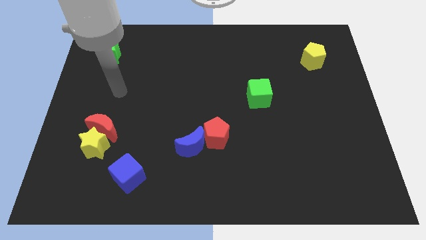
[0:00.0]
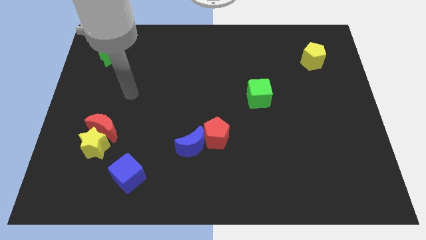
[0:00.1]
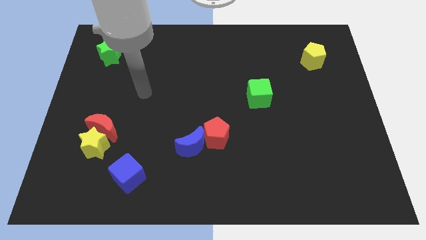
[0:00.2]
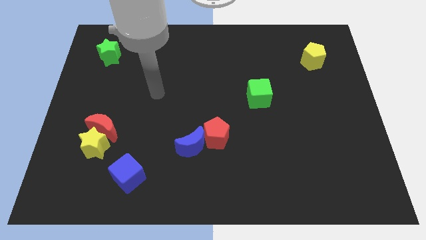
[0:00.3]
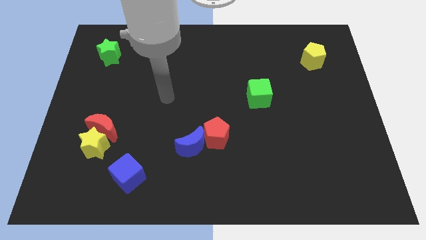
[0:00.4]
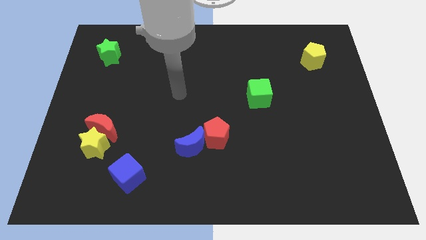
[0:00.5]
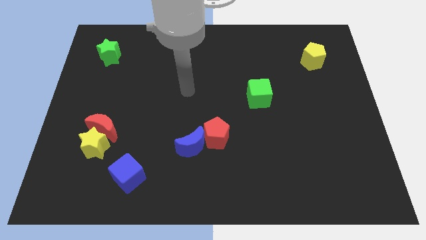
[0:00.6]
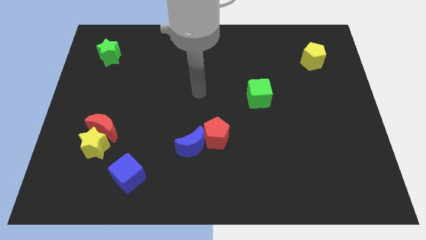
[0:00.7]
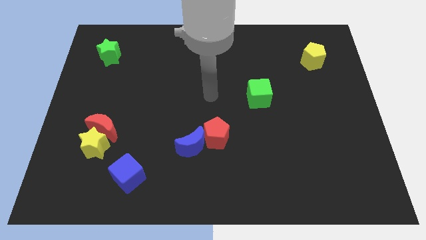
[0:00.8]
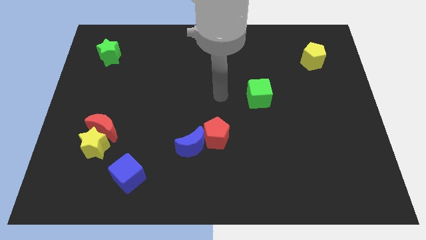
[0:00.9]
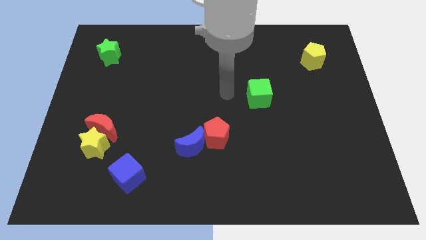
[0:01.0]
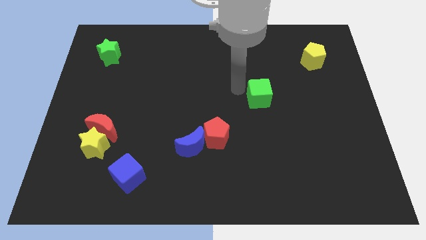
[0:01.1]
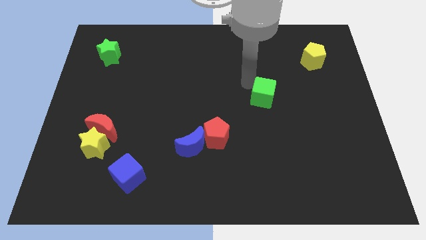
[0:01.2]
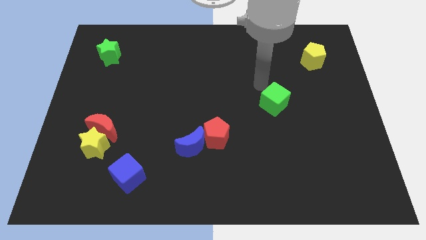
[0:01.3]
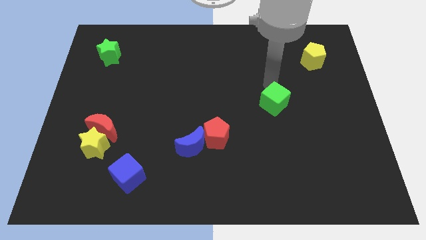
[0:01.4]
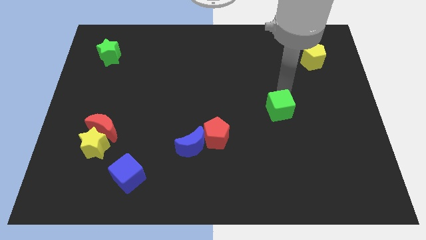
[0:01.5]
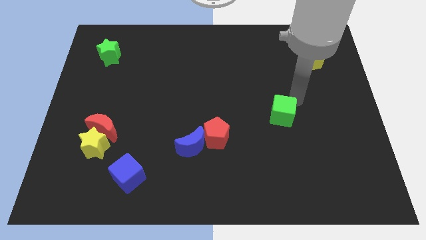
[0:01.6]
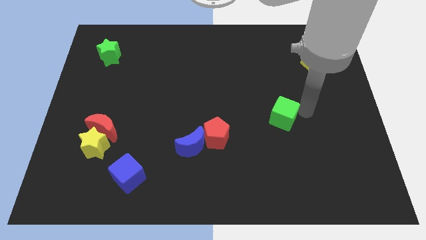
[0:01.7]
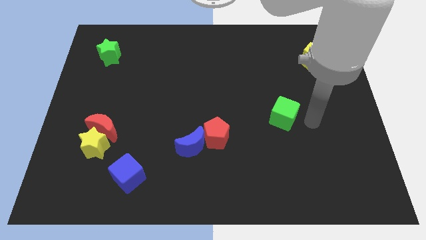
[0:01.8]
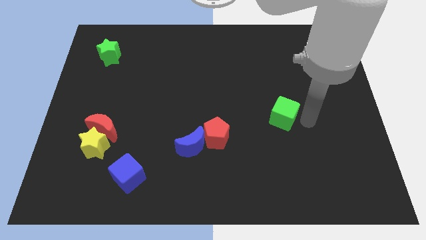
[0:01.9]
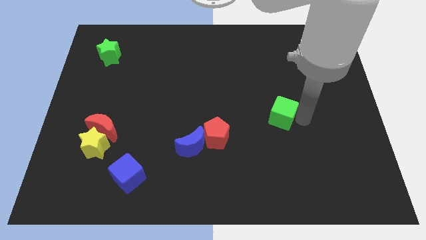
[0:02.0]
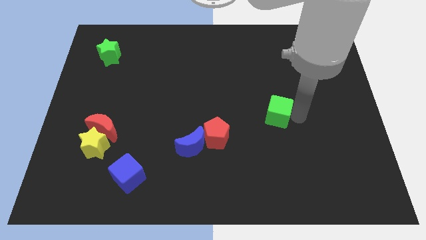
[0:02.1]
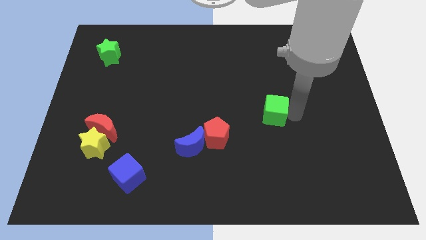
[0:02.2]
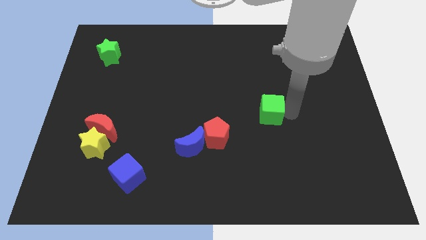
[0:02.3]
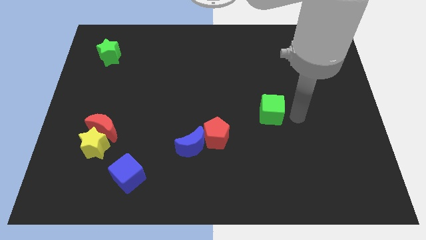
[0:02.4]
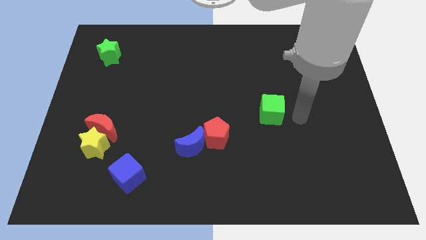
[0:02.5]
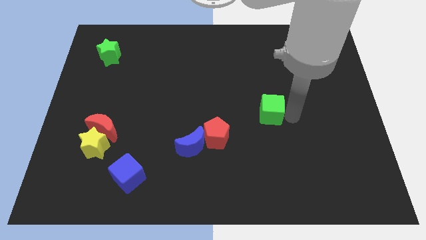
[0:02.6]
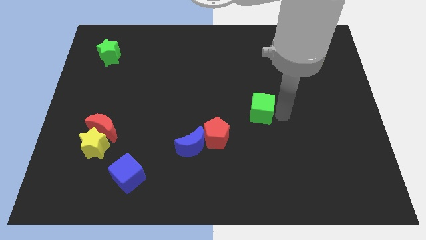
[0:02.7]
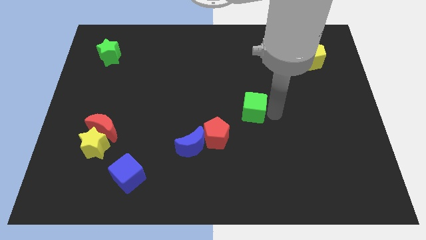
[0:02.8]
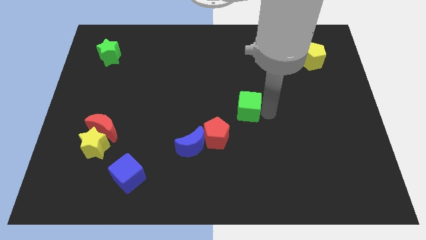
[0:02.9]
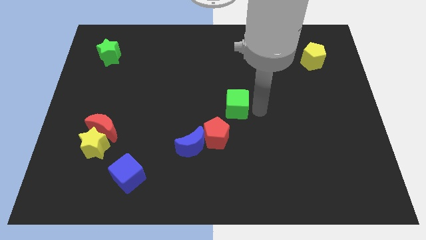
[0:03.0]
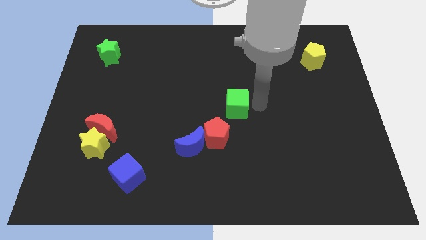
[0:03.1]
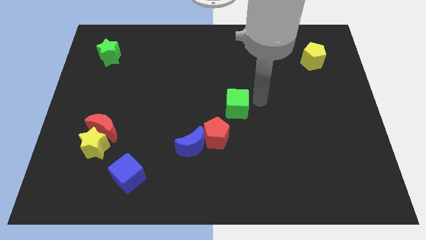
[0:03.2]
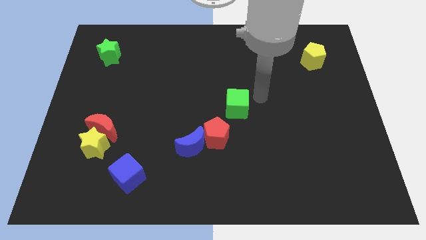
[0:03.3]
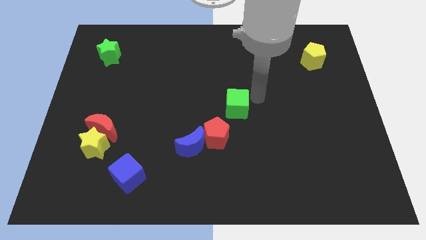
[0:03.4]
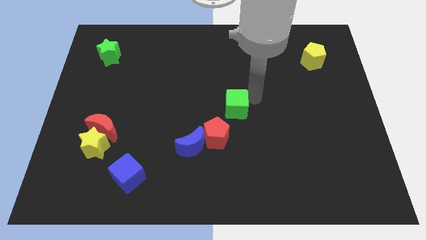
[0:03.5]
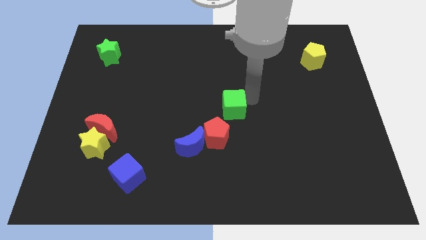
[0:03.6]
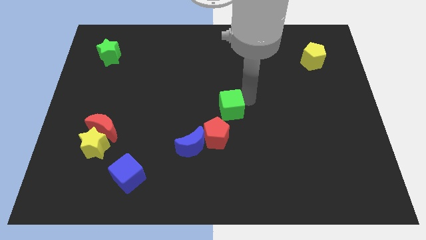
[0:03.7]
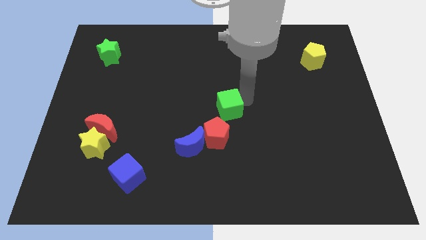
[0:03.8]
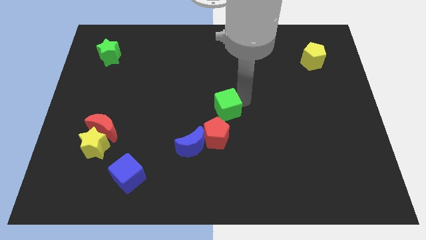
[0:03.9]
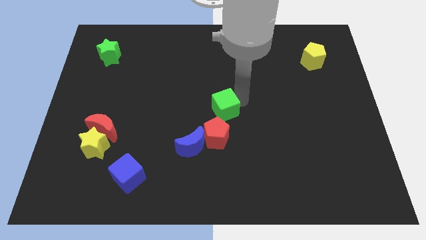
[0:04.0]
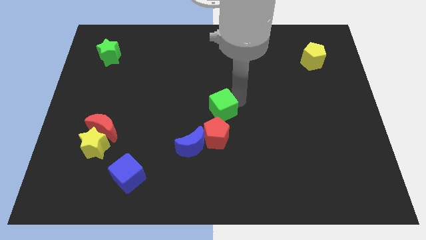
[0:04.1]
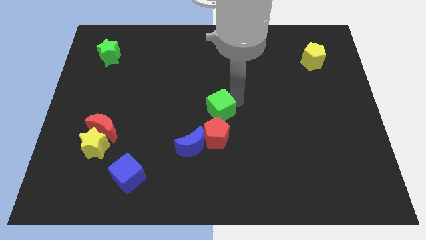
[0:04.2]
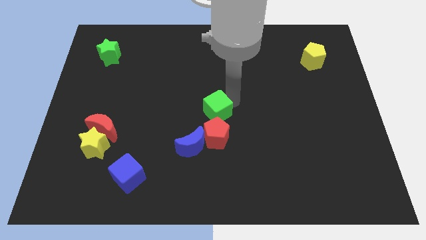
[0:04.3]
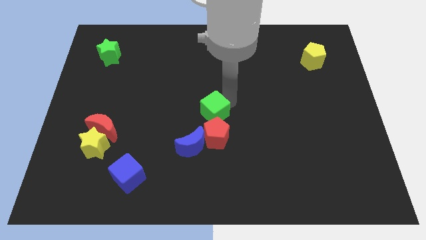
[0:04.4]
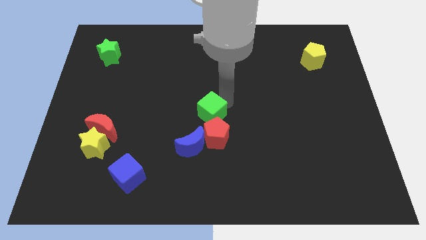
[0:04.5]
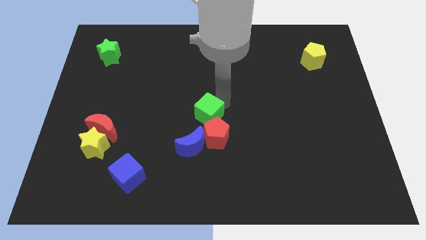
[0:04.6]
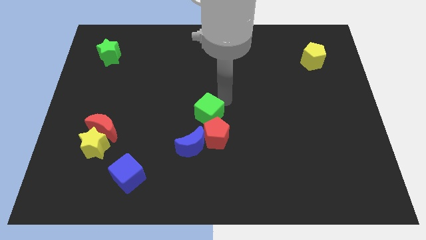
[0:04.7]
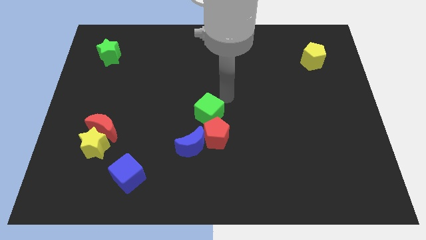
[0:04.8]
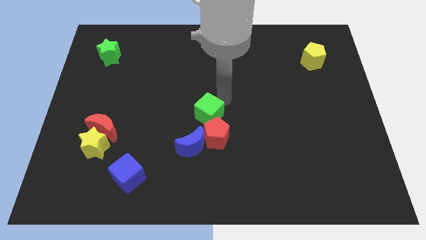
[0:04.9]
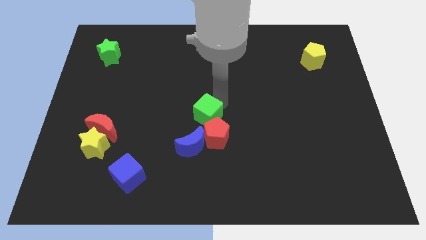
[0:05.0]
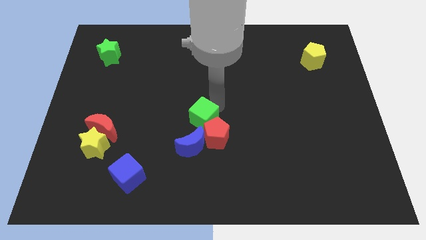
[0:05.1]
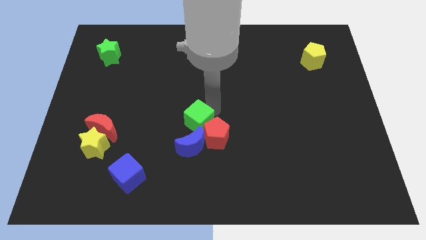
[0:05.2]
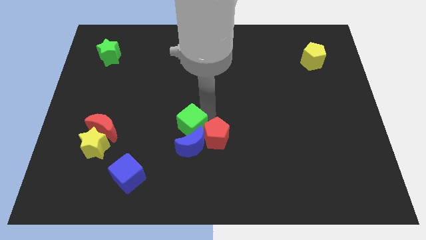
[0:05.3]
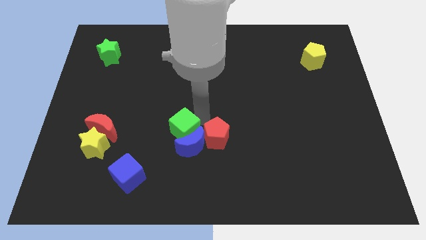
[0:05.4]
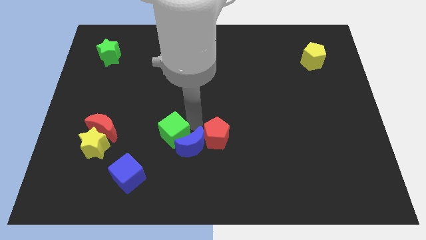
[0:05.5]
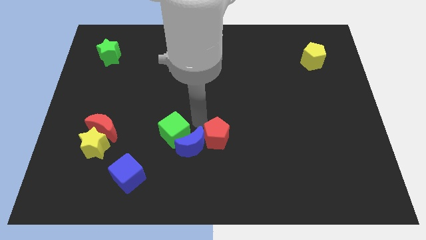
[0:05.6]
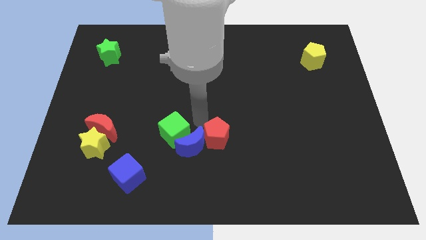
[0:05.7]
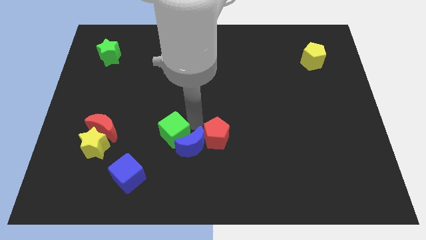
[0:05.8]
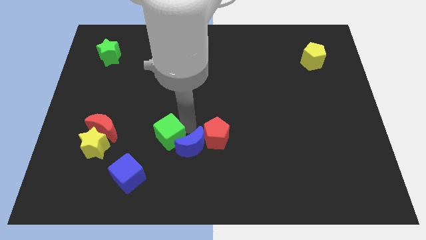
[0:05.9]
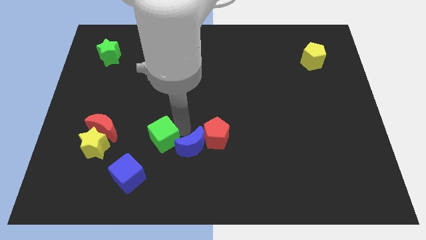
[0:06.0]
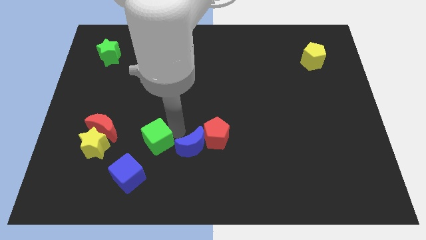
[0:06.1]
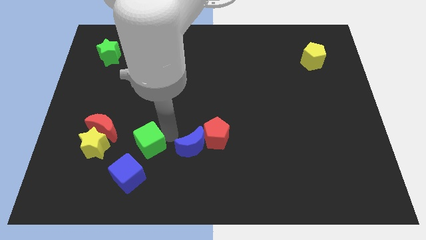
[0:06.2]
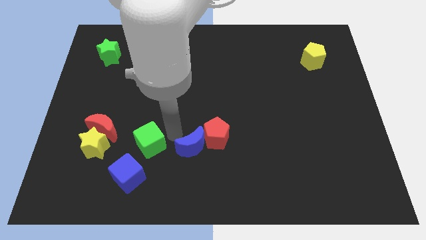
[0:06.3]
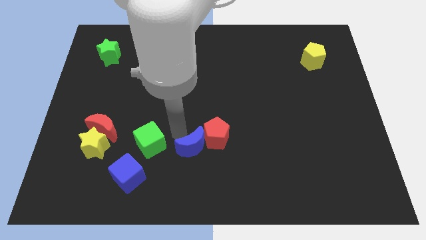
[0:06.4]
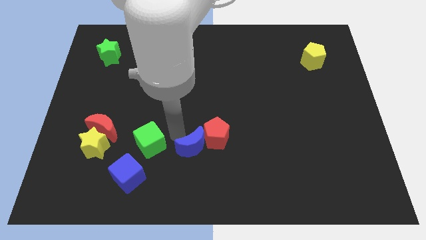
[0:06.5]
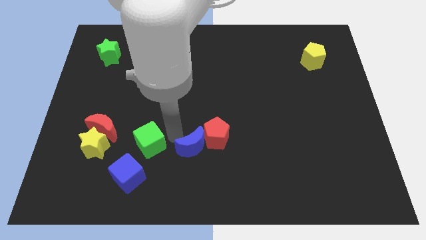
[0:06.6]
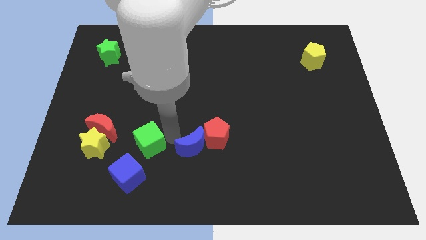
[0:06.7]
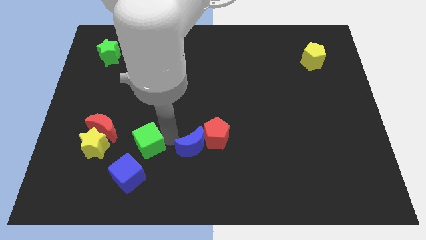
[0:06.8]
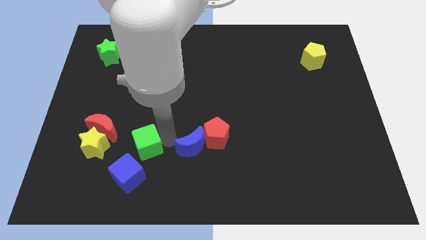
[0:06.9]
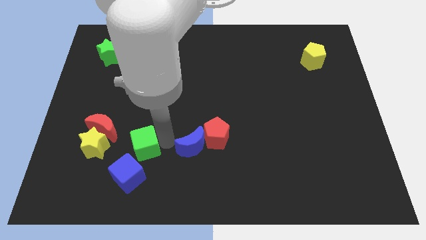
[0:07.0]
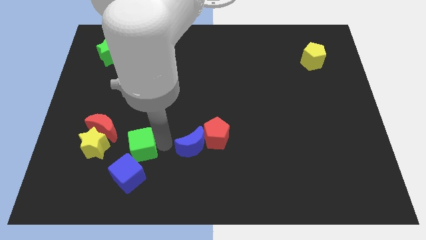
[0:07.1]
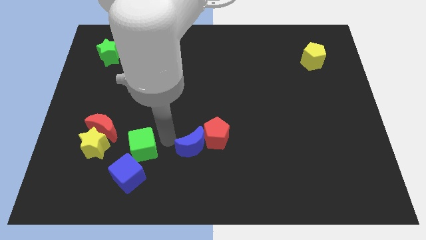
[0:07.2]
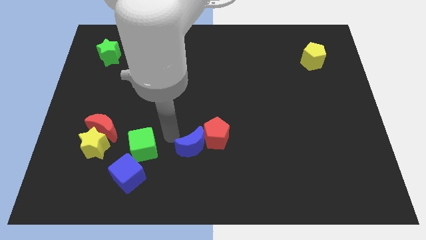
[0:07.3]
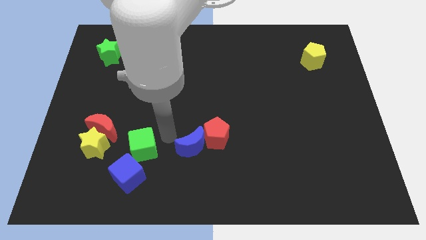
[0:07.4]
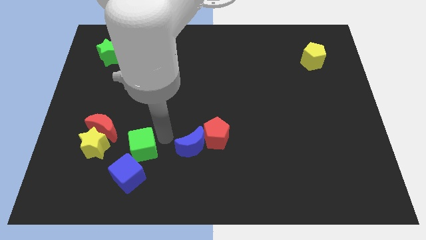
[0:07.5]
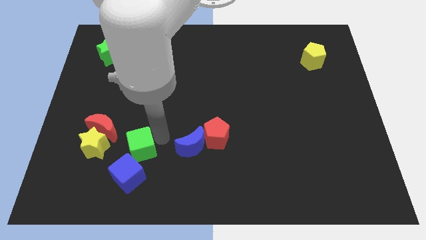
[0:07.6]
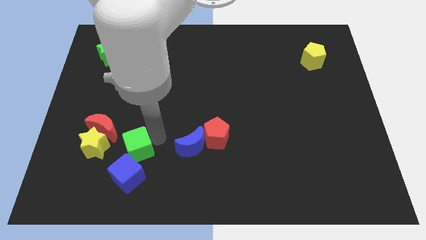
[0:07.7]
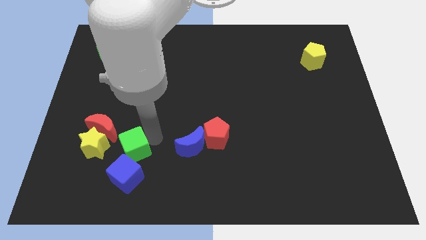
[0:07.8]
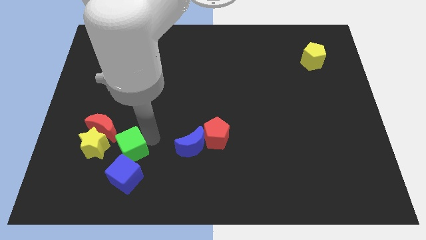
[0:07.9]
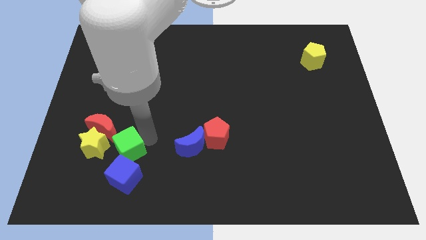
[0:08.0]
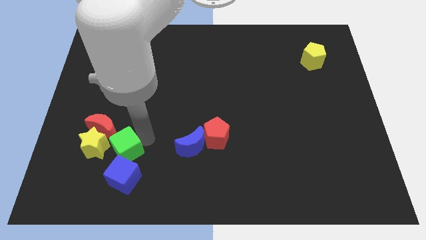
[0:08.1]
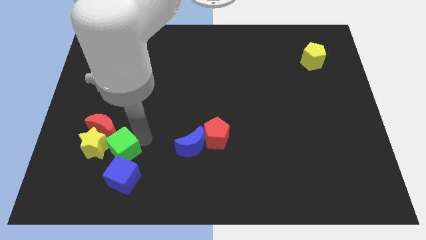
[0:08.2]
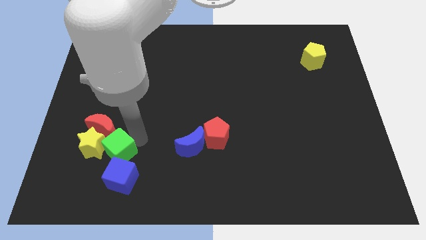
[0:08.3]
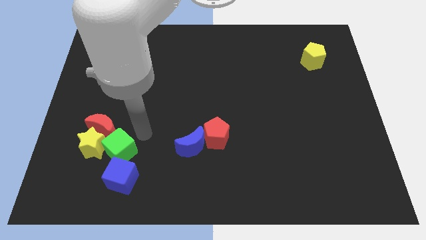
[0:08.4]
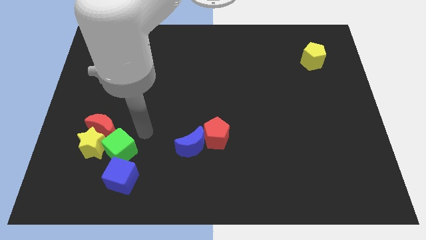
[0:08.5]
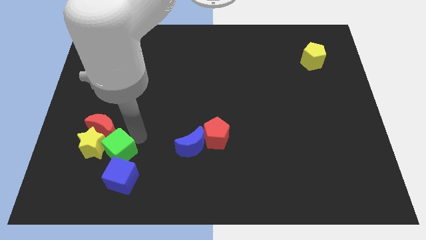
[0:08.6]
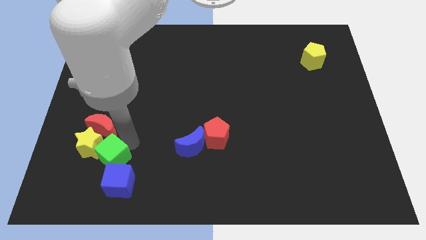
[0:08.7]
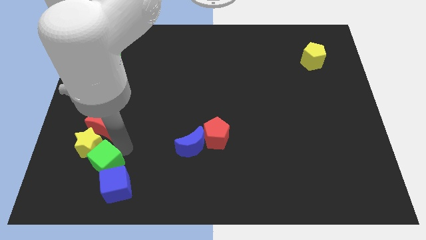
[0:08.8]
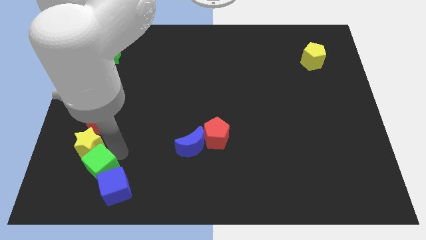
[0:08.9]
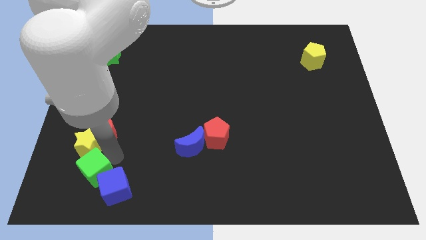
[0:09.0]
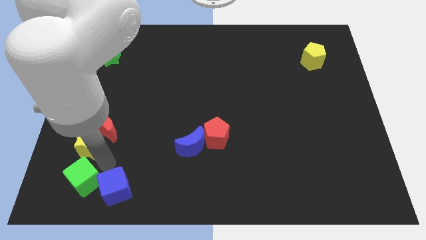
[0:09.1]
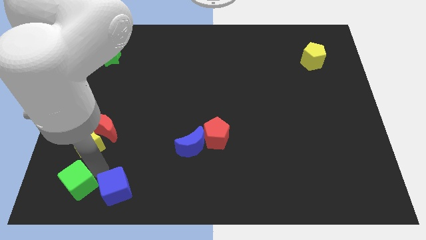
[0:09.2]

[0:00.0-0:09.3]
move the green cube to the bottom left corner
